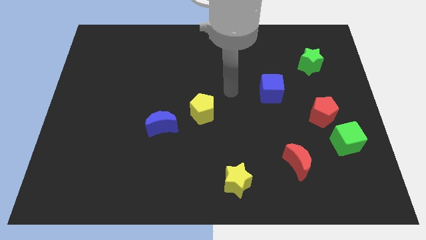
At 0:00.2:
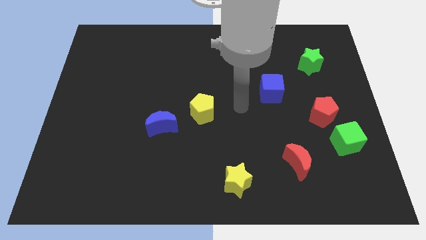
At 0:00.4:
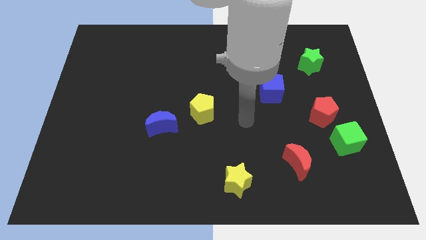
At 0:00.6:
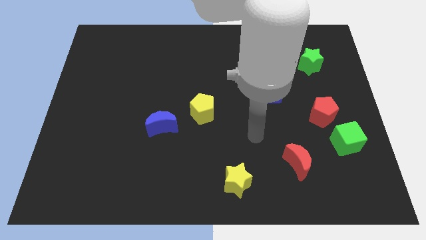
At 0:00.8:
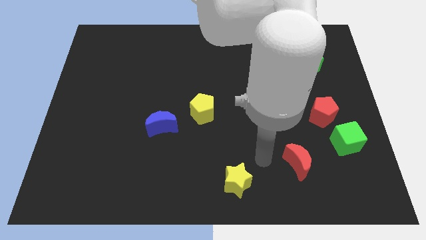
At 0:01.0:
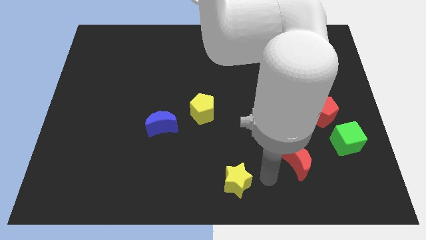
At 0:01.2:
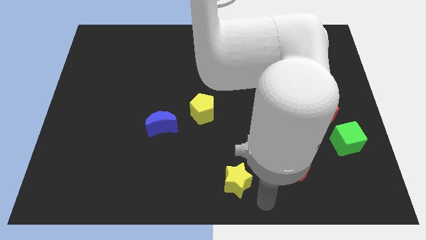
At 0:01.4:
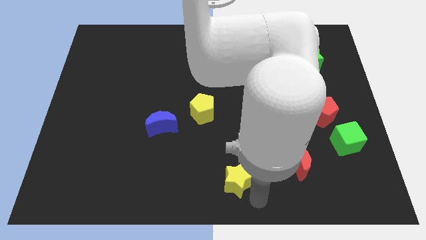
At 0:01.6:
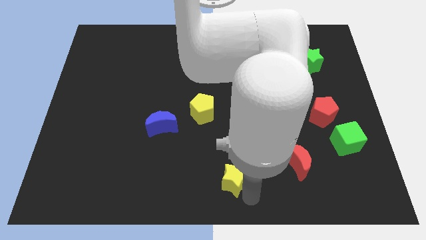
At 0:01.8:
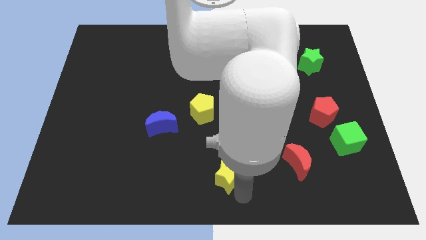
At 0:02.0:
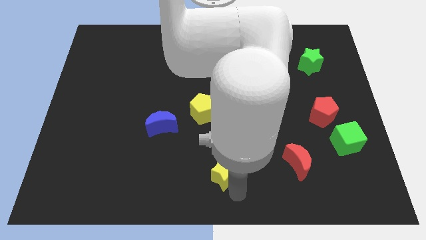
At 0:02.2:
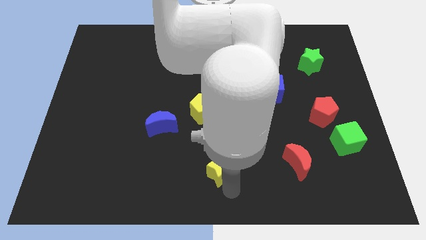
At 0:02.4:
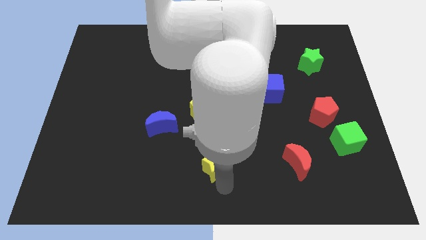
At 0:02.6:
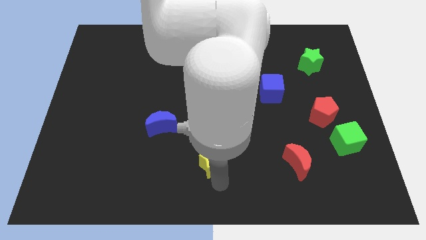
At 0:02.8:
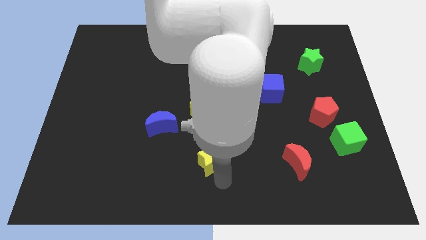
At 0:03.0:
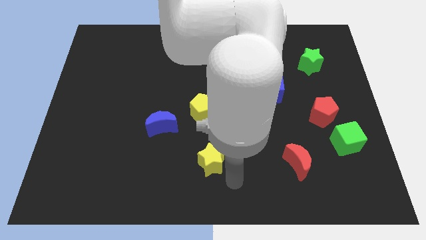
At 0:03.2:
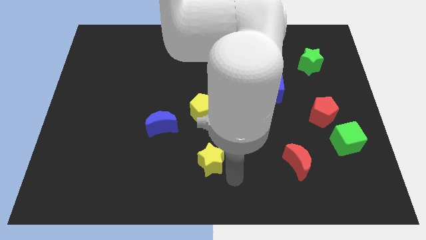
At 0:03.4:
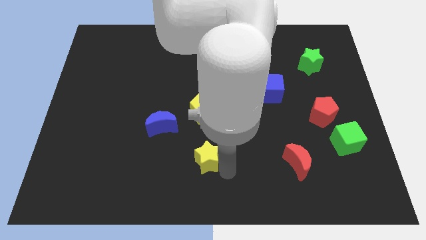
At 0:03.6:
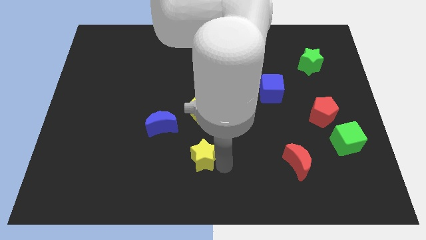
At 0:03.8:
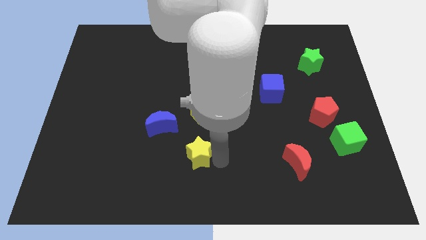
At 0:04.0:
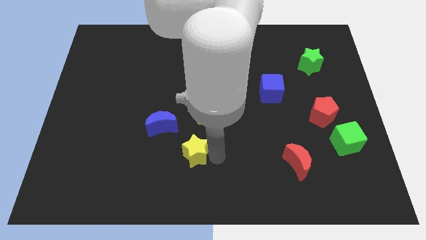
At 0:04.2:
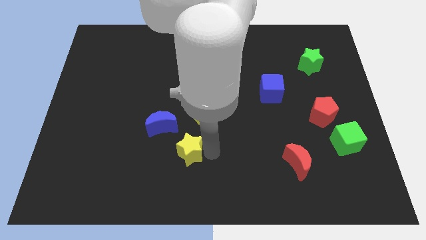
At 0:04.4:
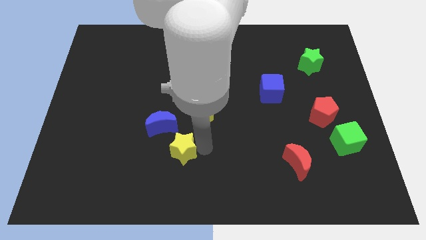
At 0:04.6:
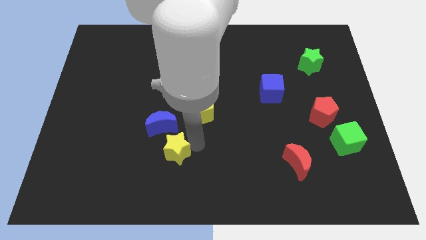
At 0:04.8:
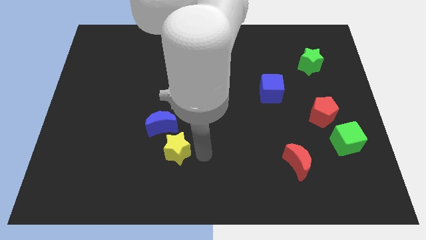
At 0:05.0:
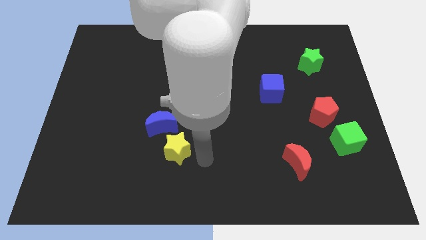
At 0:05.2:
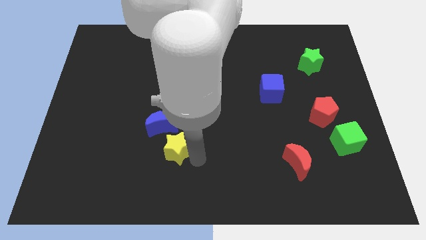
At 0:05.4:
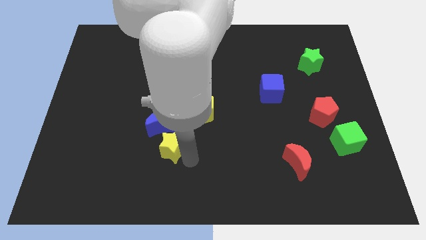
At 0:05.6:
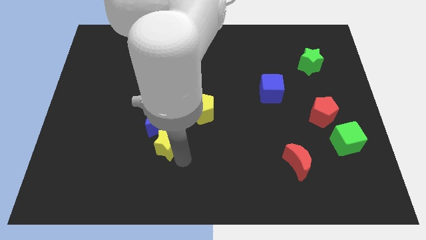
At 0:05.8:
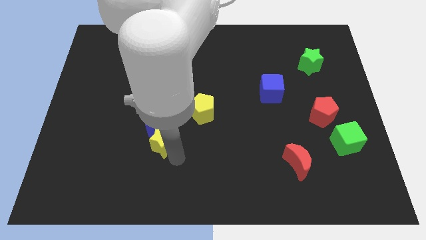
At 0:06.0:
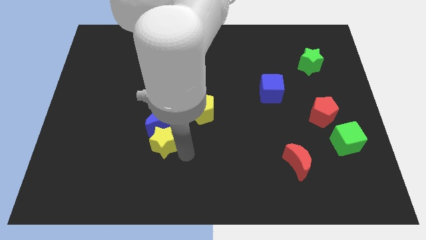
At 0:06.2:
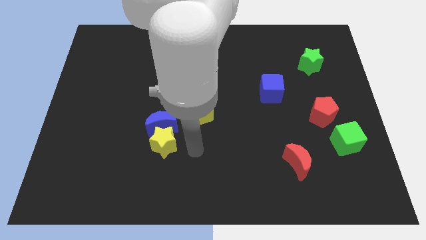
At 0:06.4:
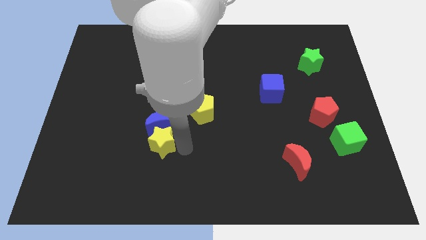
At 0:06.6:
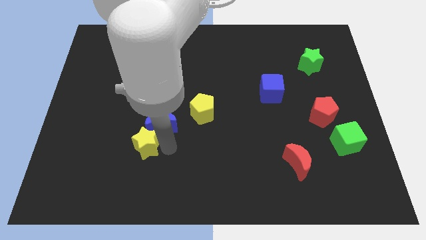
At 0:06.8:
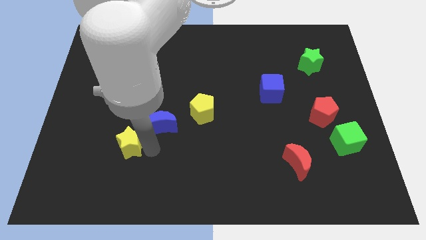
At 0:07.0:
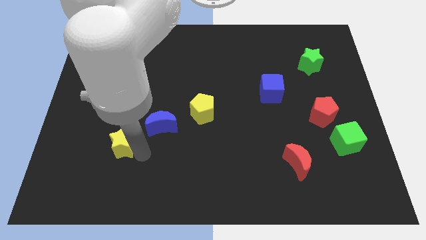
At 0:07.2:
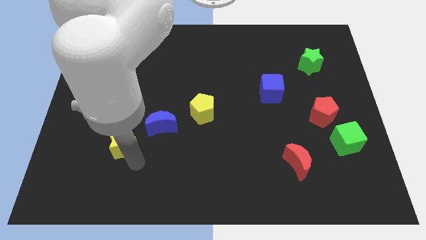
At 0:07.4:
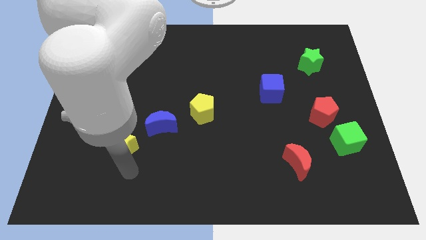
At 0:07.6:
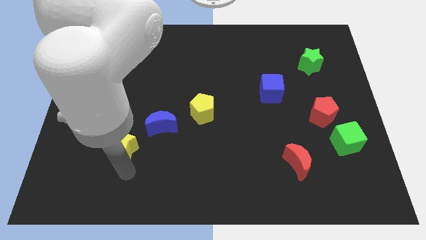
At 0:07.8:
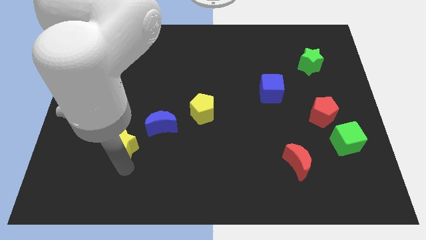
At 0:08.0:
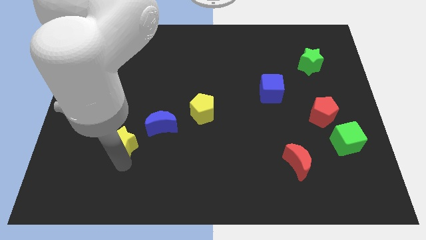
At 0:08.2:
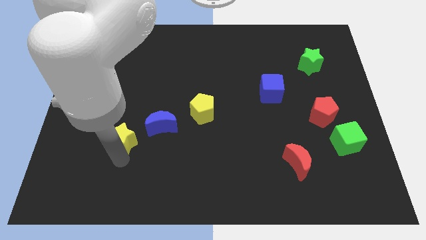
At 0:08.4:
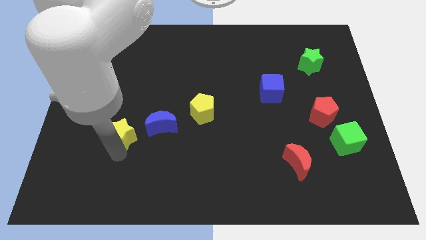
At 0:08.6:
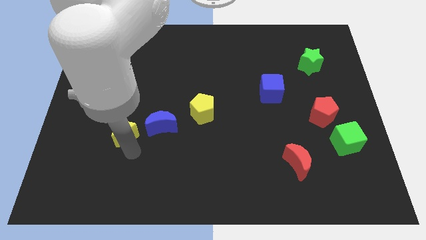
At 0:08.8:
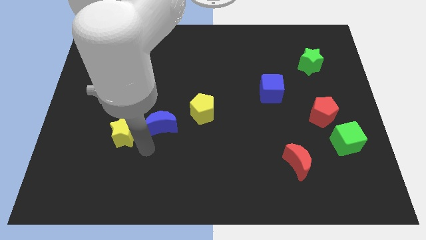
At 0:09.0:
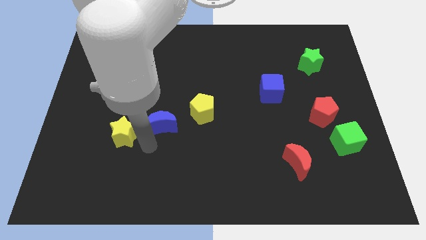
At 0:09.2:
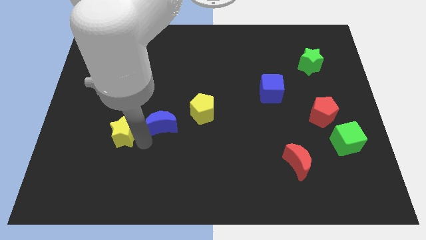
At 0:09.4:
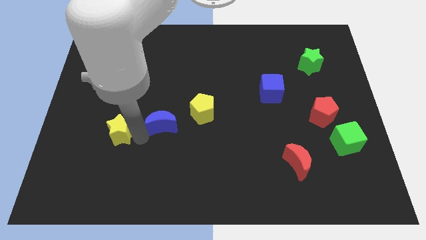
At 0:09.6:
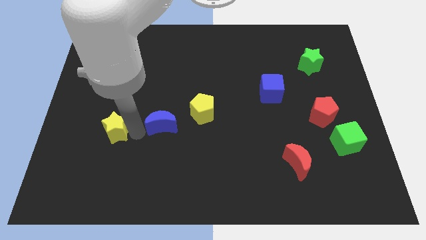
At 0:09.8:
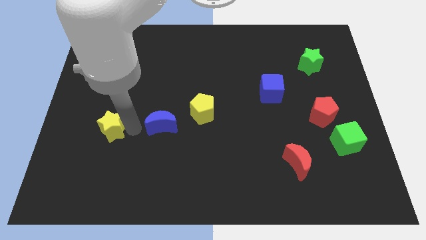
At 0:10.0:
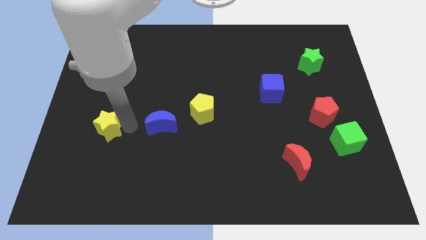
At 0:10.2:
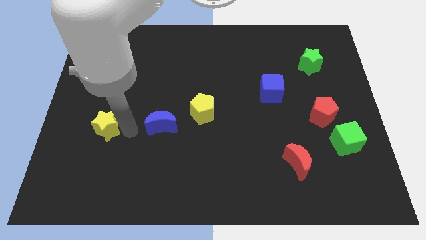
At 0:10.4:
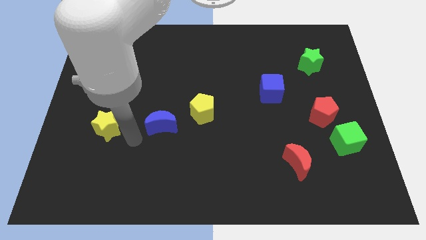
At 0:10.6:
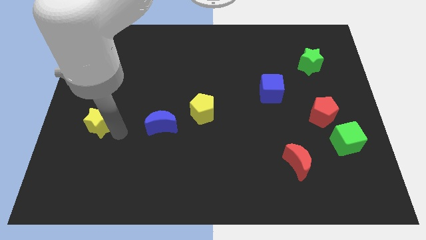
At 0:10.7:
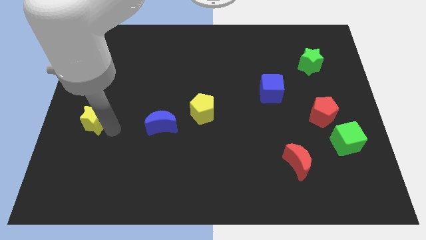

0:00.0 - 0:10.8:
put the yellow star to the left side
